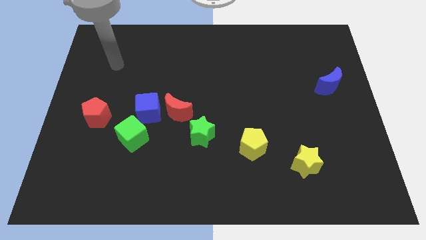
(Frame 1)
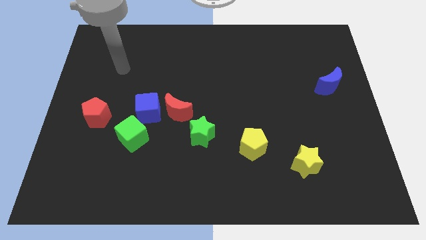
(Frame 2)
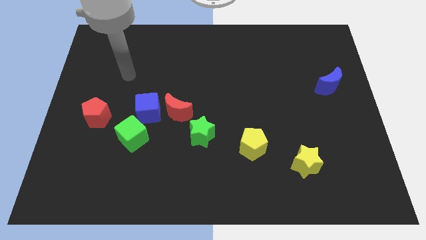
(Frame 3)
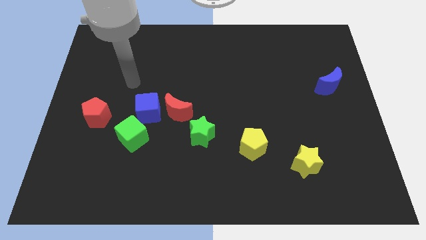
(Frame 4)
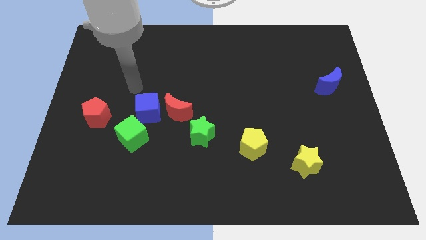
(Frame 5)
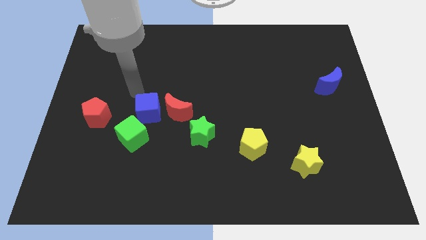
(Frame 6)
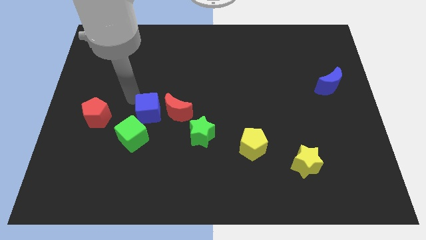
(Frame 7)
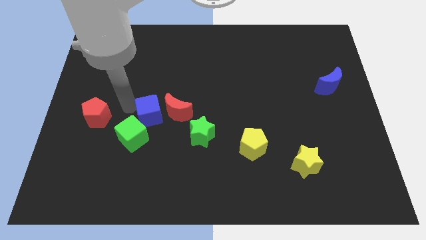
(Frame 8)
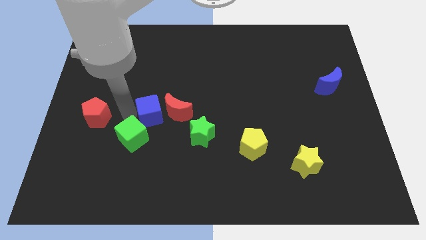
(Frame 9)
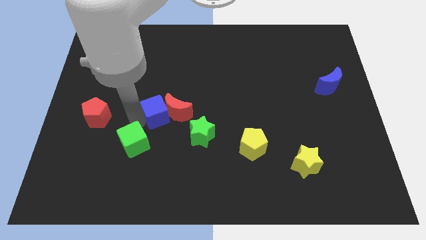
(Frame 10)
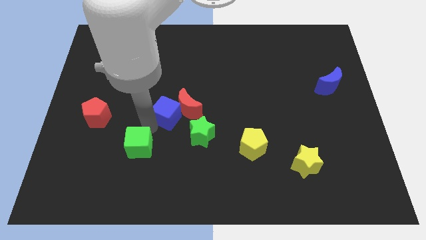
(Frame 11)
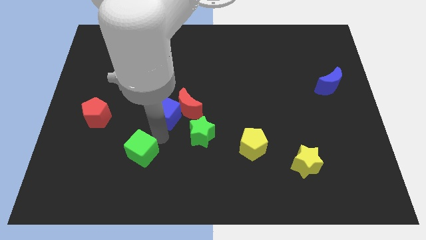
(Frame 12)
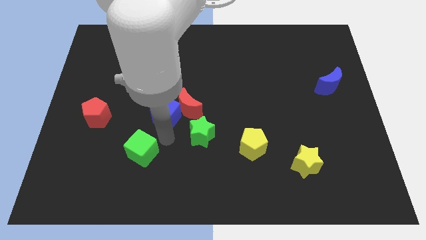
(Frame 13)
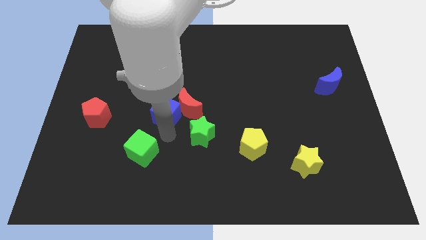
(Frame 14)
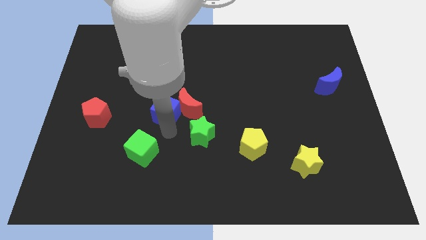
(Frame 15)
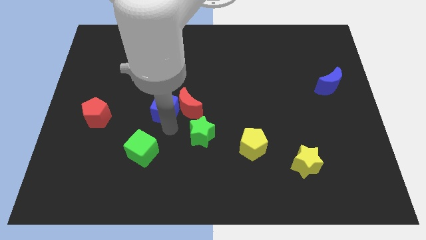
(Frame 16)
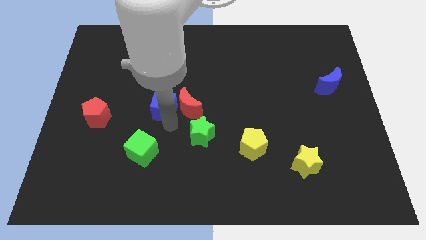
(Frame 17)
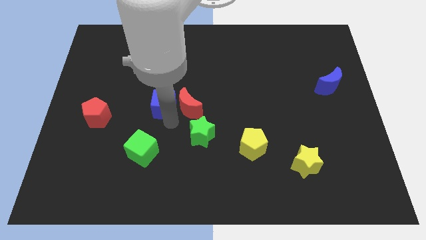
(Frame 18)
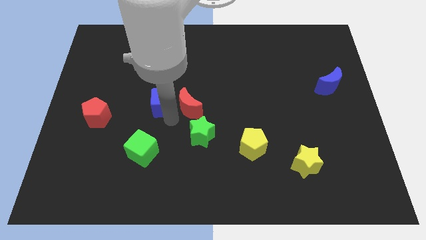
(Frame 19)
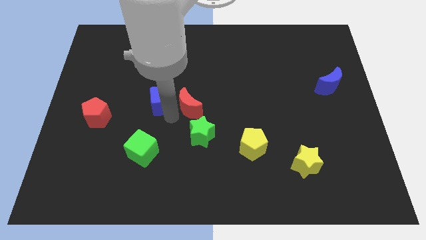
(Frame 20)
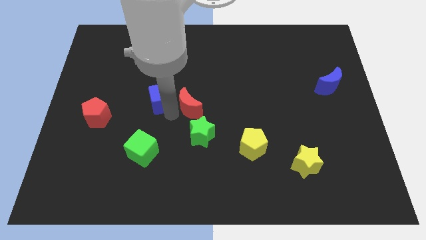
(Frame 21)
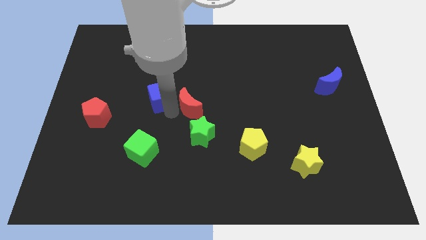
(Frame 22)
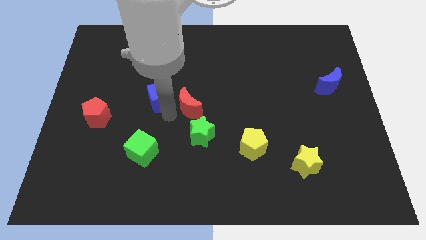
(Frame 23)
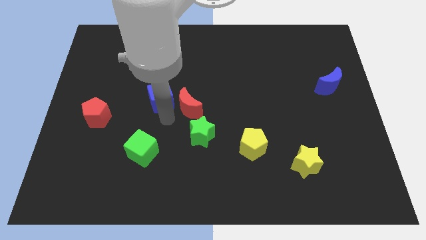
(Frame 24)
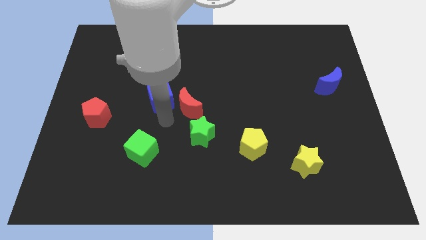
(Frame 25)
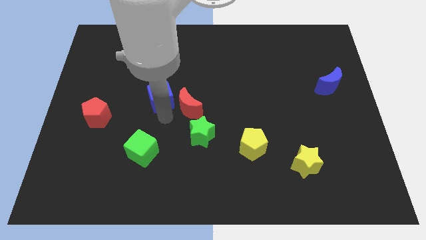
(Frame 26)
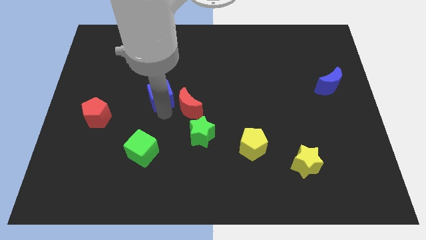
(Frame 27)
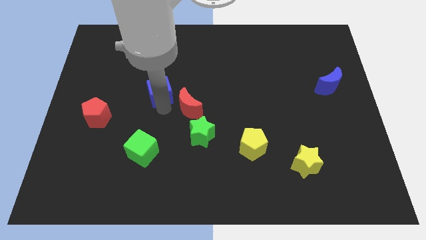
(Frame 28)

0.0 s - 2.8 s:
pull the blue cube apart from the red moon and green cube

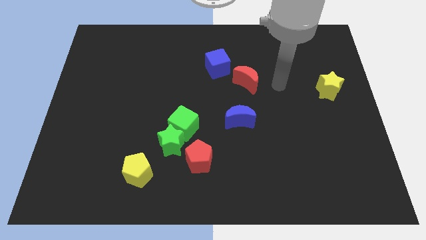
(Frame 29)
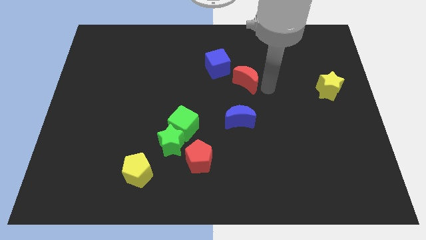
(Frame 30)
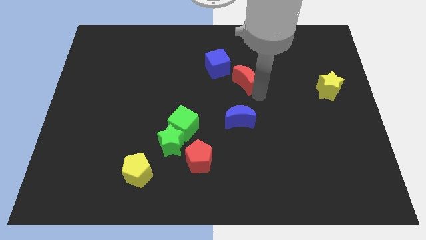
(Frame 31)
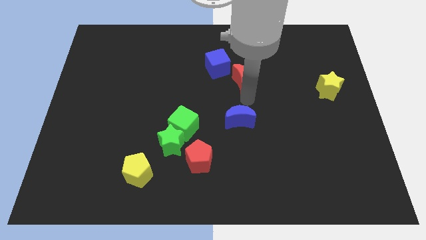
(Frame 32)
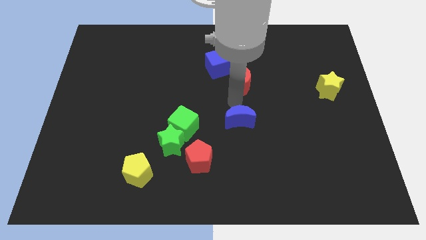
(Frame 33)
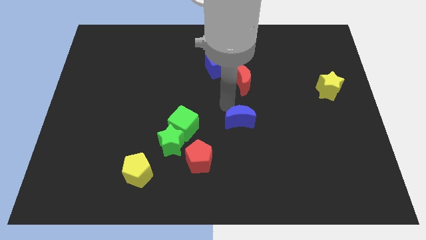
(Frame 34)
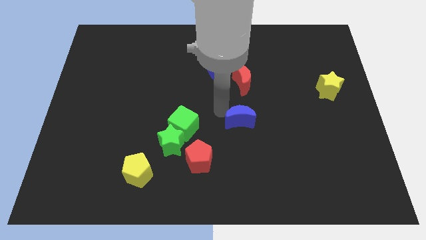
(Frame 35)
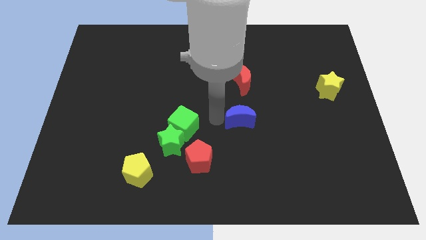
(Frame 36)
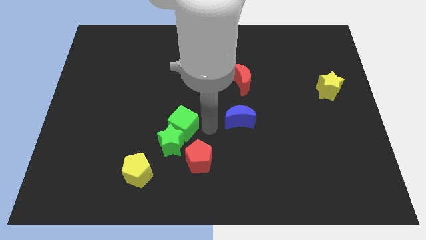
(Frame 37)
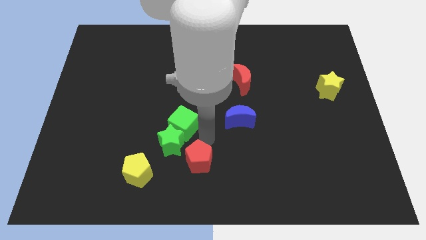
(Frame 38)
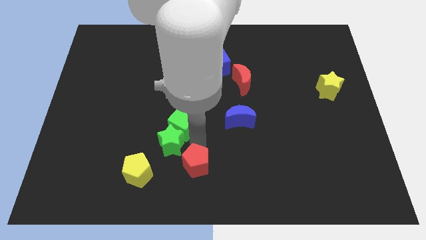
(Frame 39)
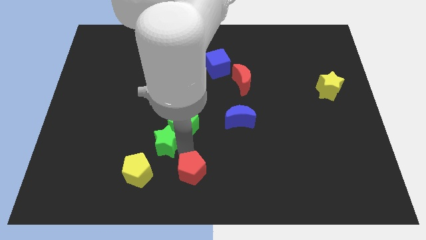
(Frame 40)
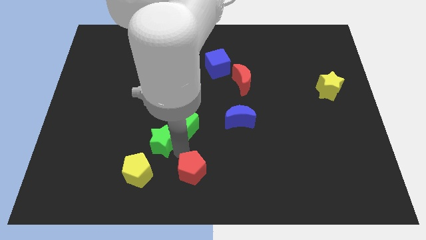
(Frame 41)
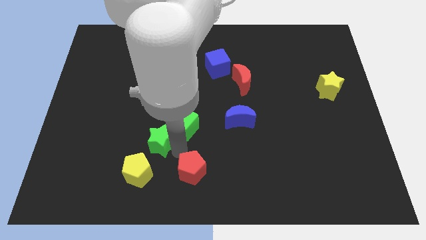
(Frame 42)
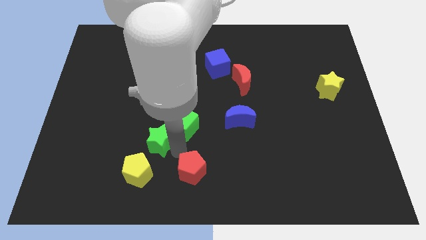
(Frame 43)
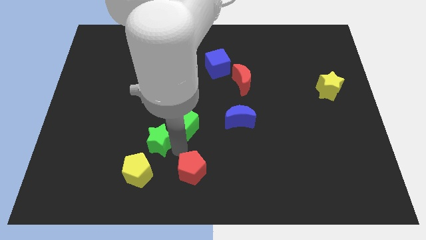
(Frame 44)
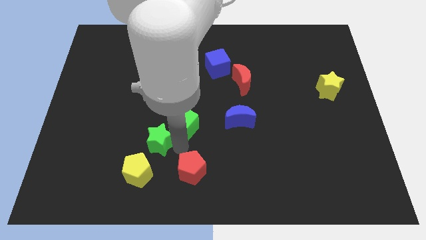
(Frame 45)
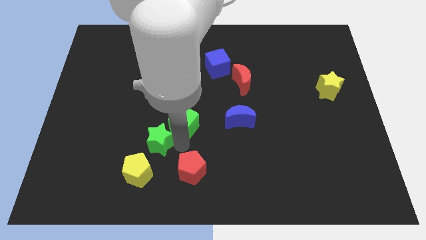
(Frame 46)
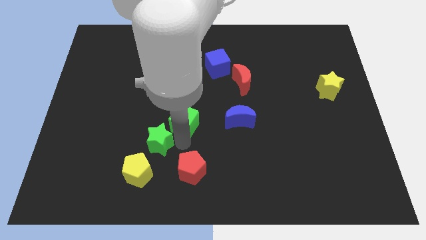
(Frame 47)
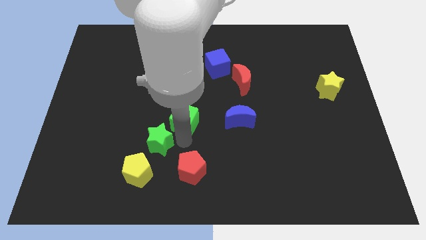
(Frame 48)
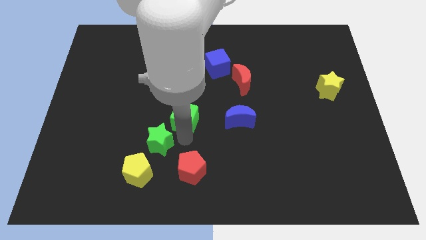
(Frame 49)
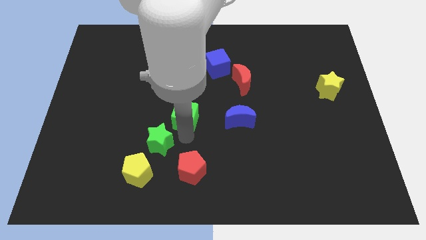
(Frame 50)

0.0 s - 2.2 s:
move the green cube away from the green star and red pentagon

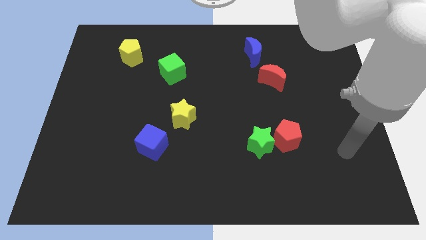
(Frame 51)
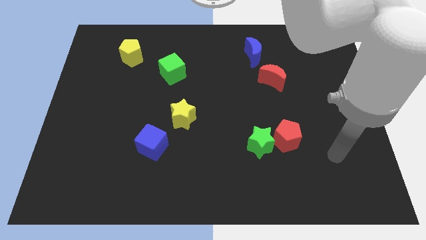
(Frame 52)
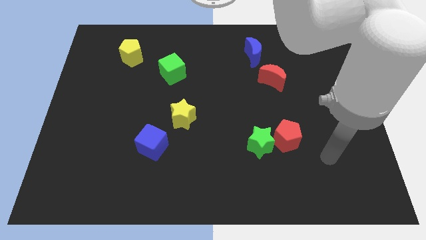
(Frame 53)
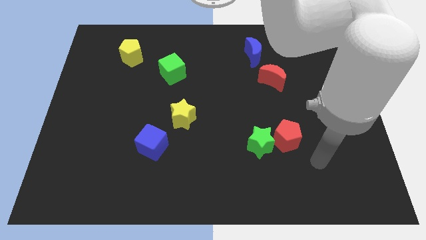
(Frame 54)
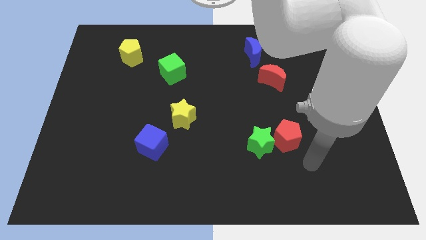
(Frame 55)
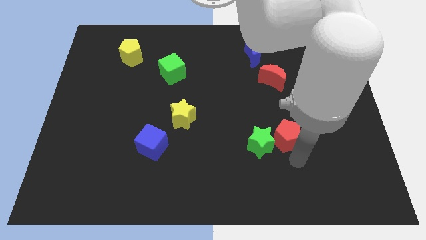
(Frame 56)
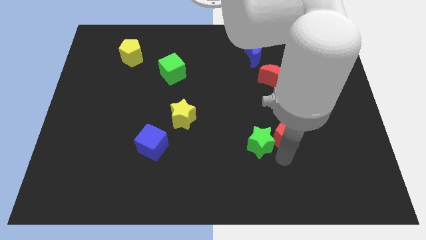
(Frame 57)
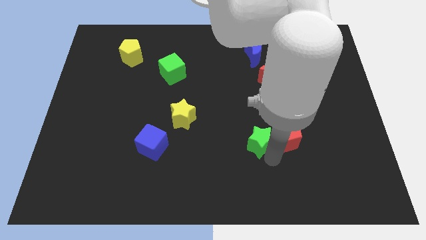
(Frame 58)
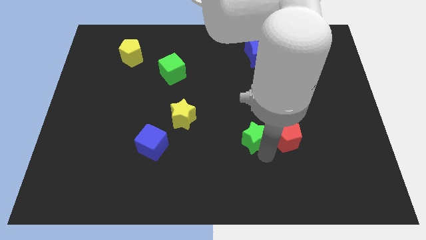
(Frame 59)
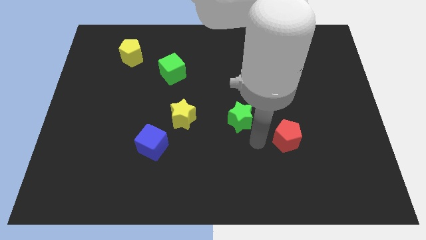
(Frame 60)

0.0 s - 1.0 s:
separate the red pentagon from the green star

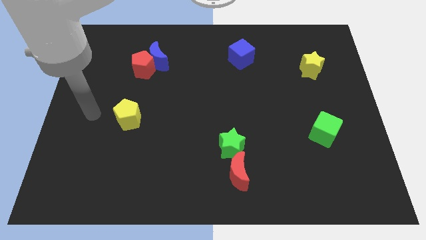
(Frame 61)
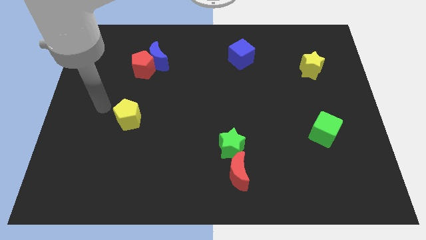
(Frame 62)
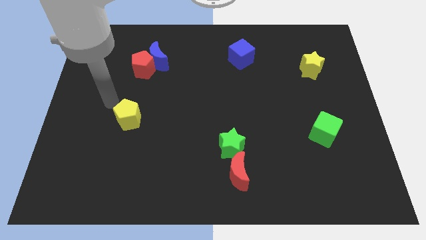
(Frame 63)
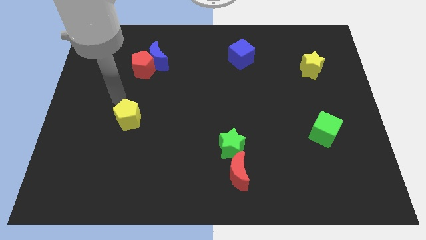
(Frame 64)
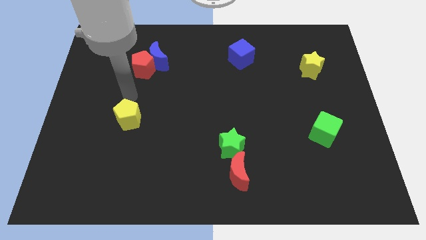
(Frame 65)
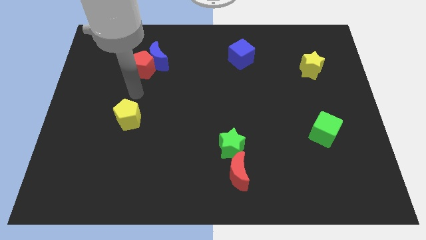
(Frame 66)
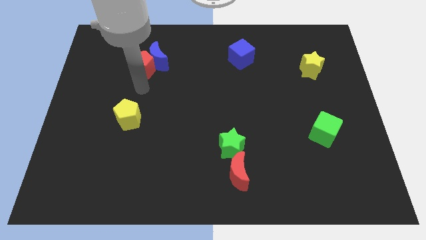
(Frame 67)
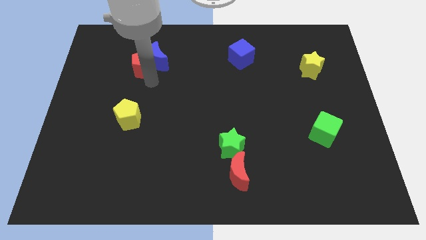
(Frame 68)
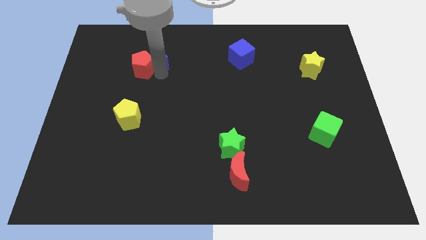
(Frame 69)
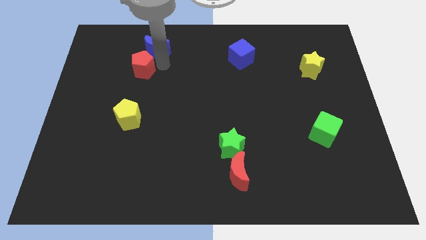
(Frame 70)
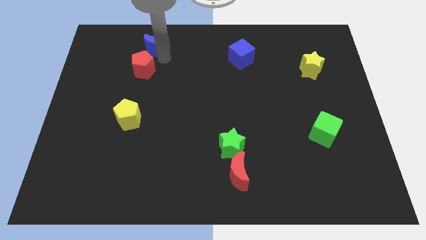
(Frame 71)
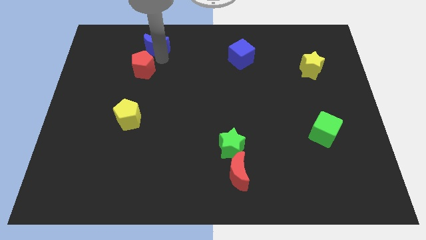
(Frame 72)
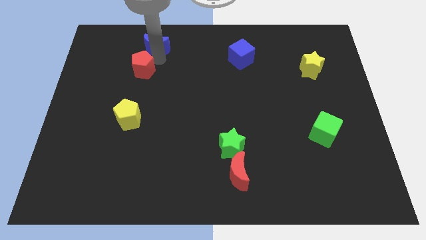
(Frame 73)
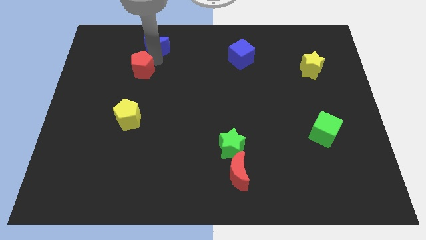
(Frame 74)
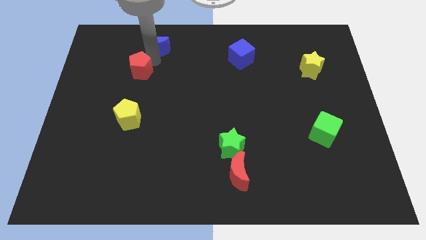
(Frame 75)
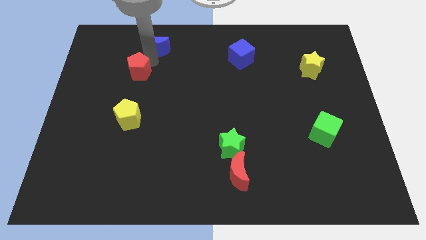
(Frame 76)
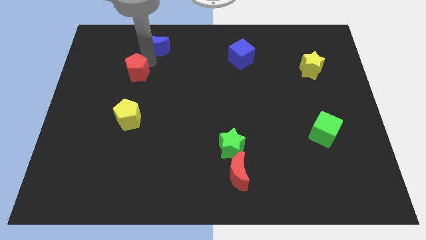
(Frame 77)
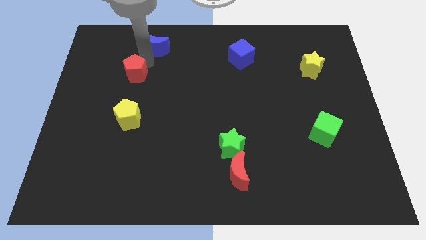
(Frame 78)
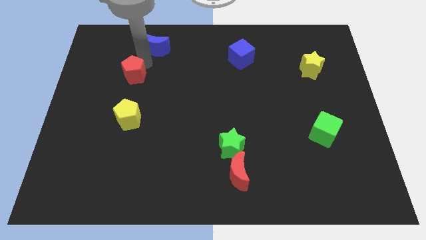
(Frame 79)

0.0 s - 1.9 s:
move the red pentagon away from the blue moon

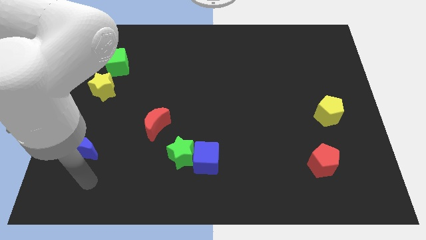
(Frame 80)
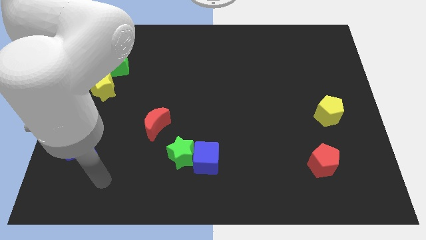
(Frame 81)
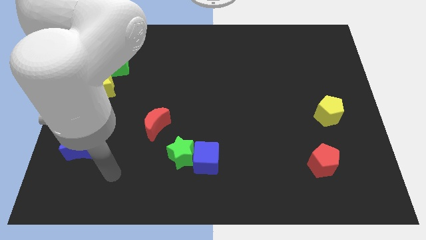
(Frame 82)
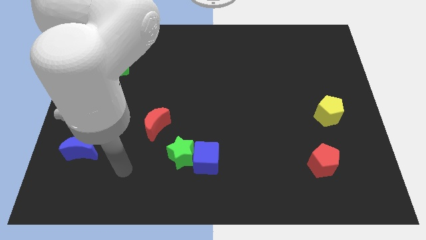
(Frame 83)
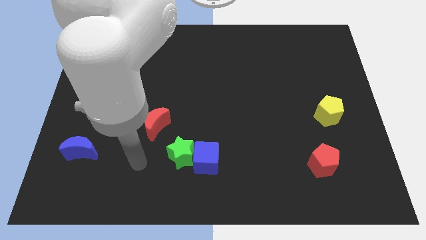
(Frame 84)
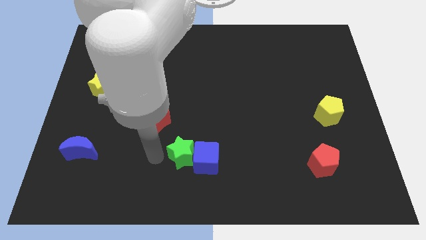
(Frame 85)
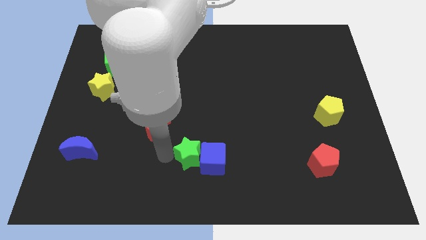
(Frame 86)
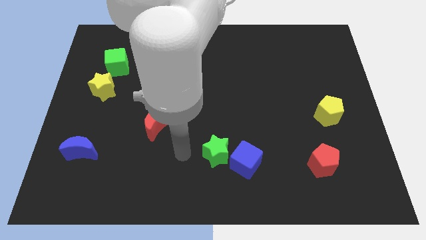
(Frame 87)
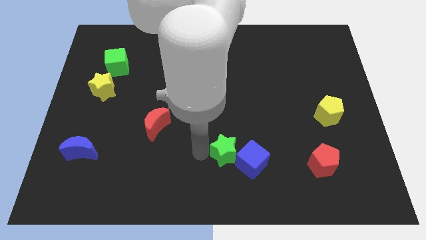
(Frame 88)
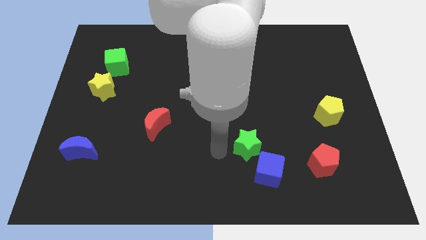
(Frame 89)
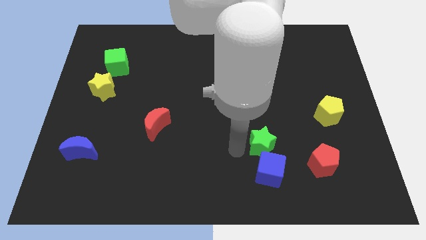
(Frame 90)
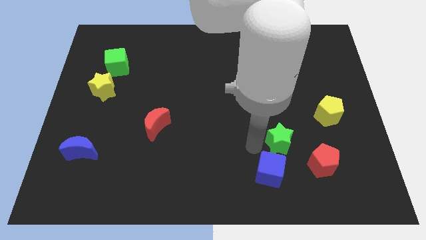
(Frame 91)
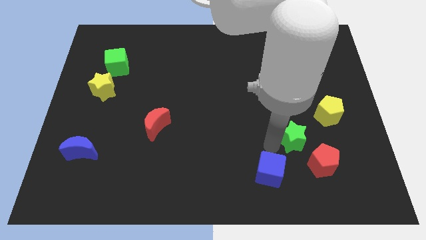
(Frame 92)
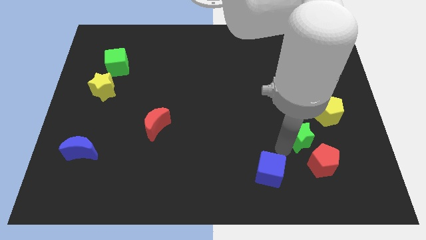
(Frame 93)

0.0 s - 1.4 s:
pull the blue cube apart from the green star
